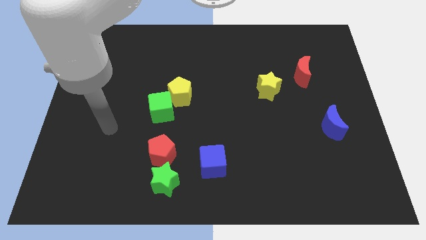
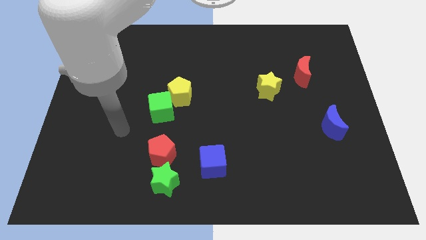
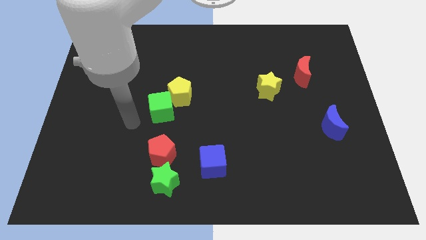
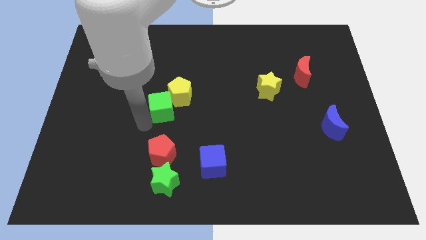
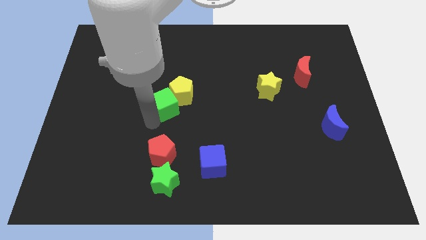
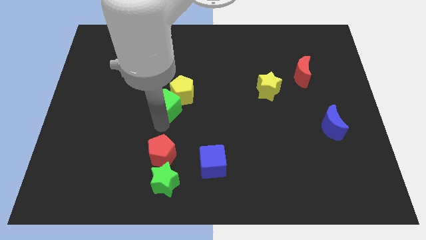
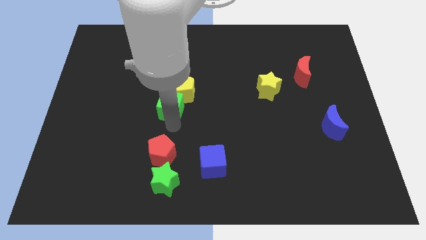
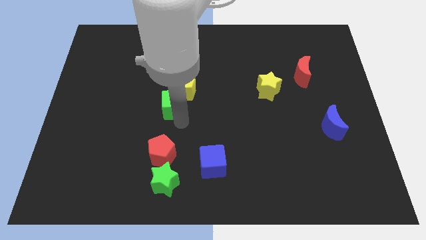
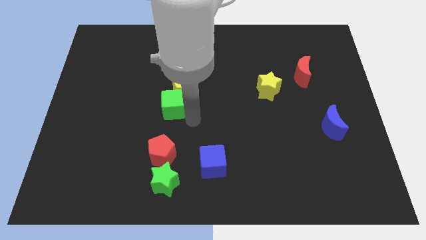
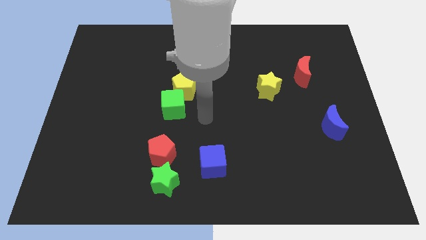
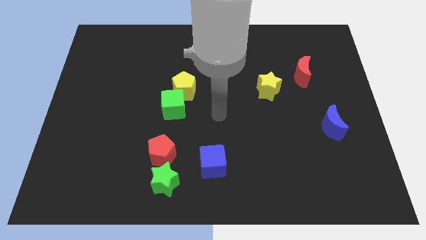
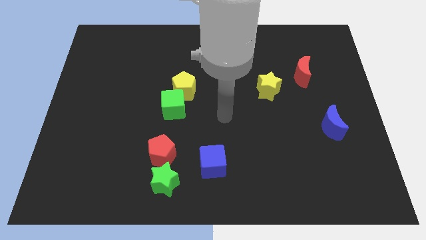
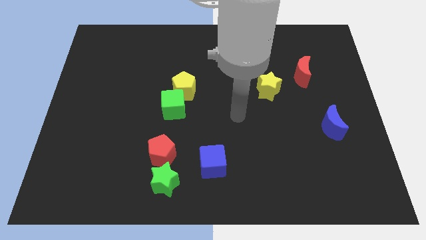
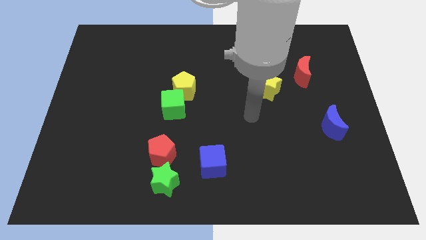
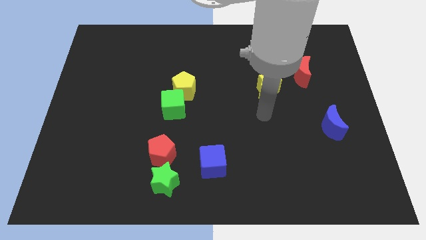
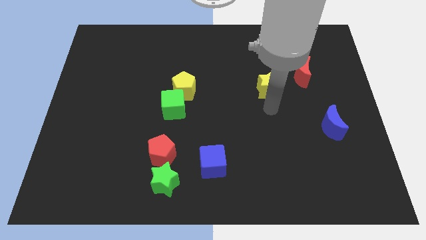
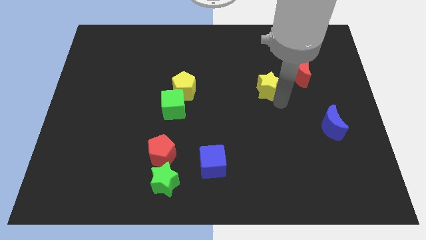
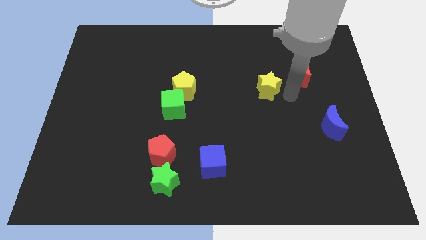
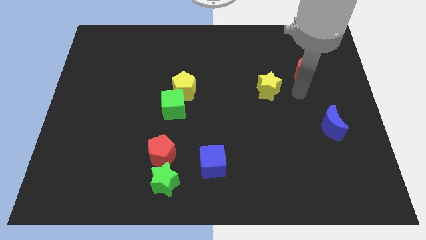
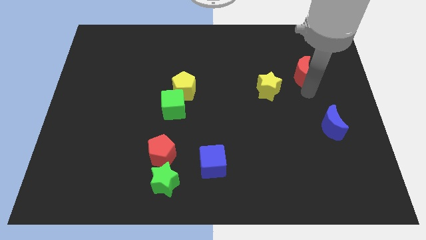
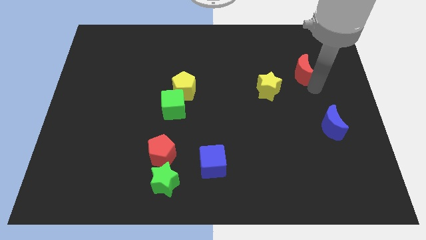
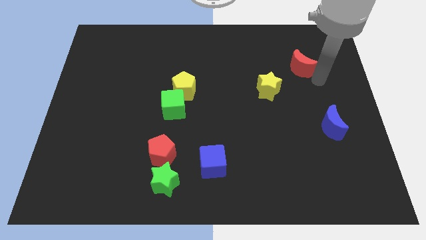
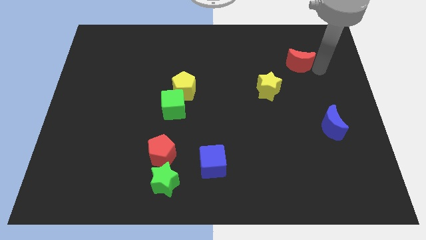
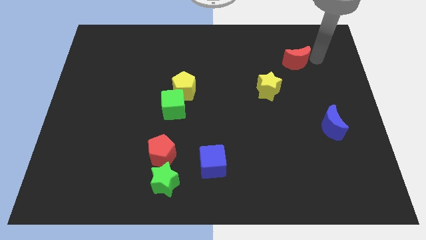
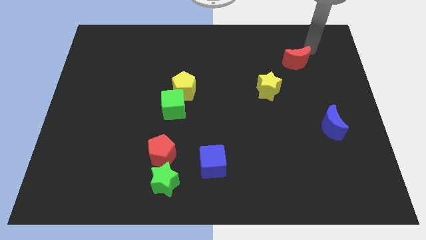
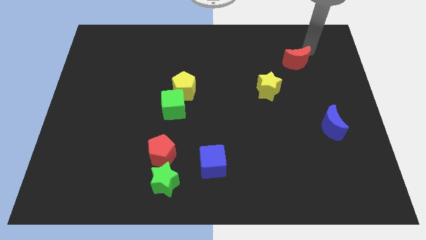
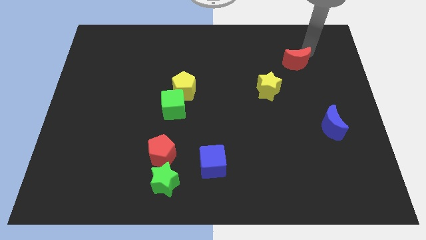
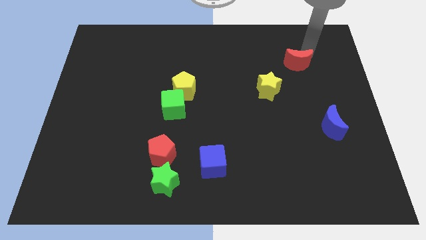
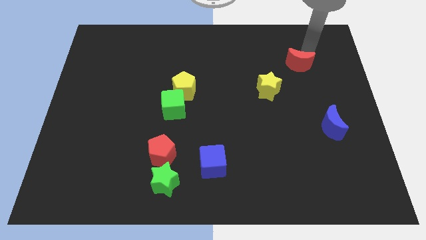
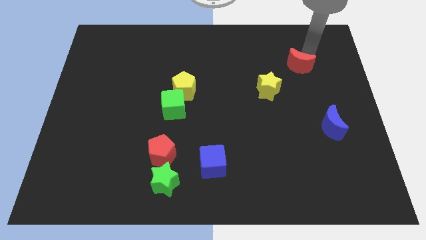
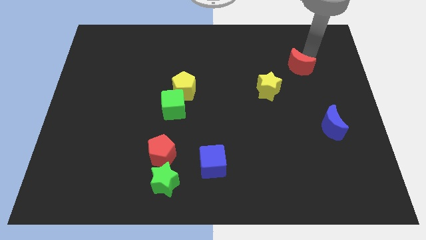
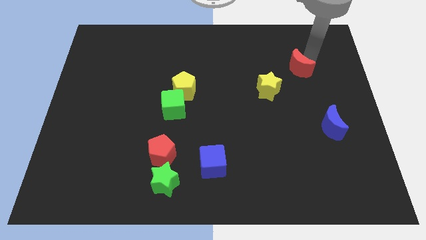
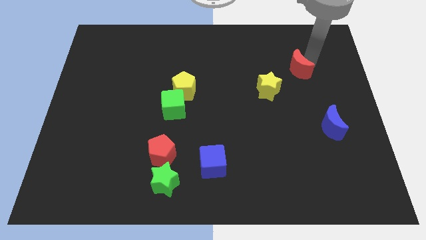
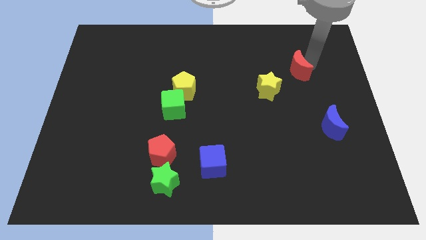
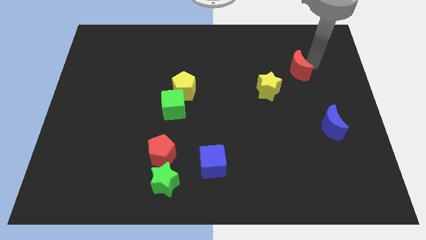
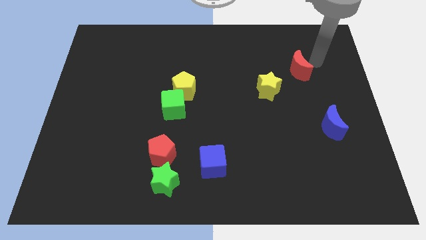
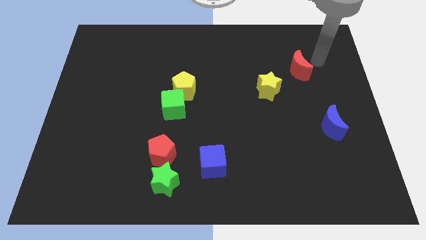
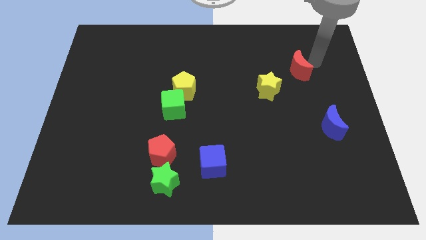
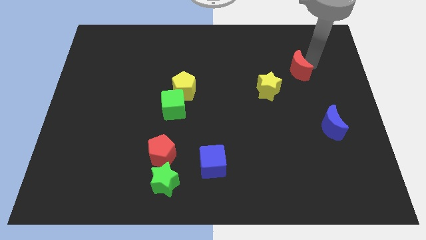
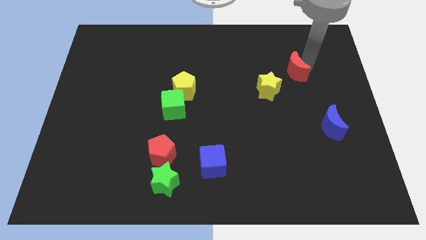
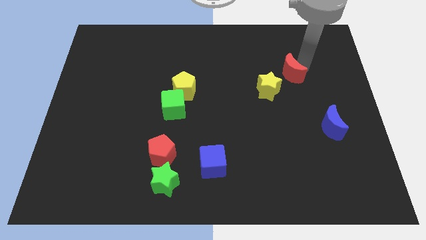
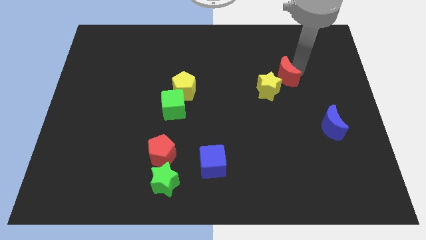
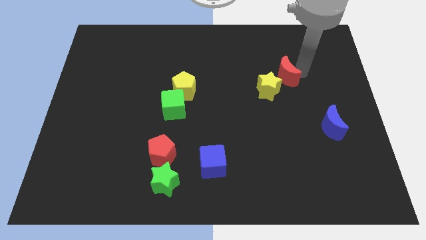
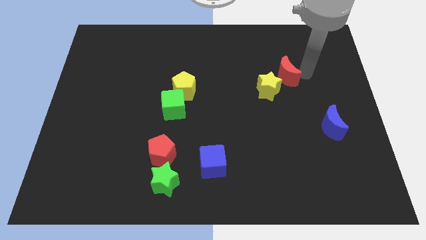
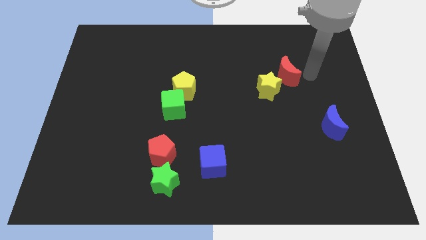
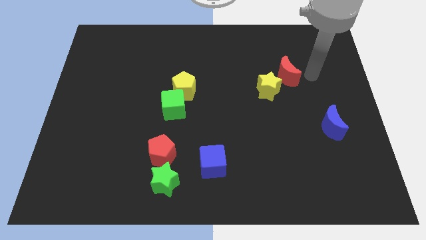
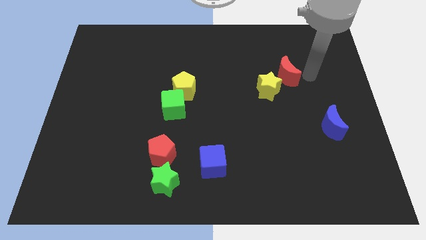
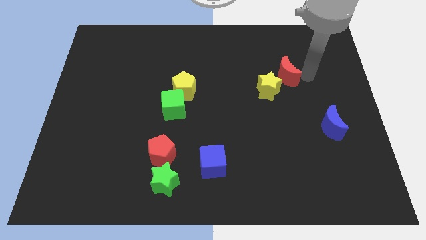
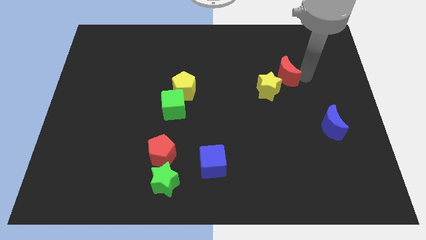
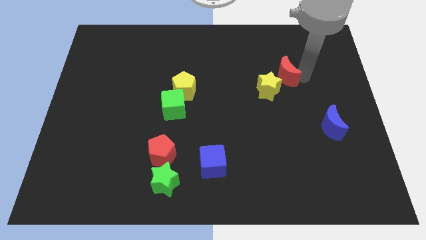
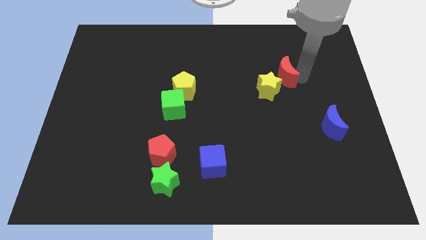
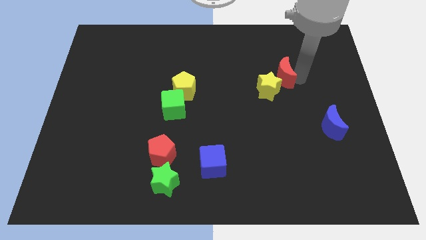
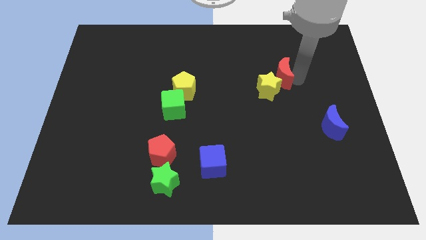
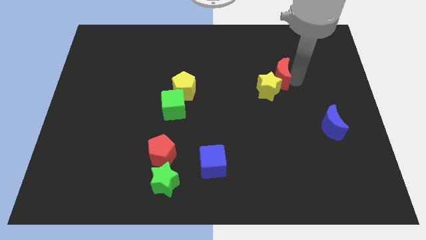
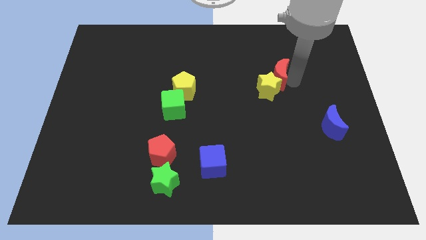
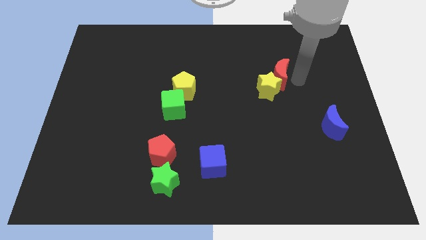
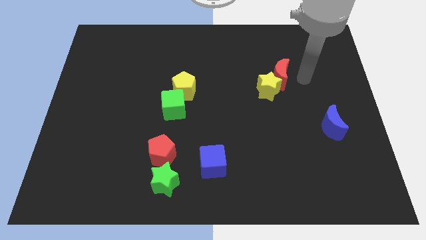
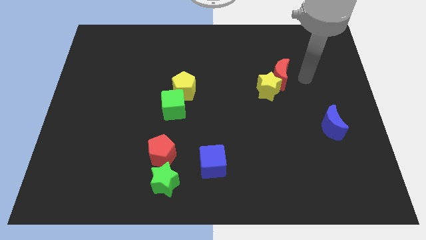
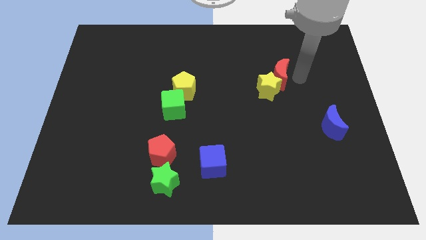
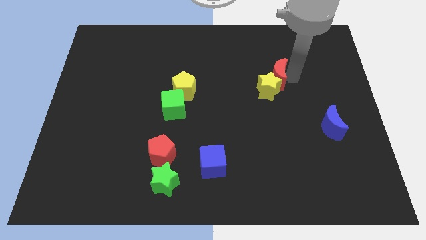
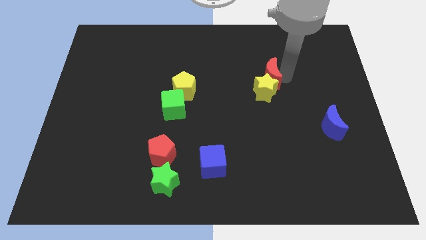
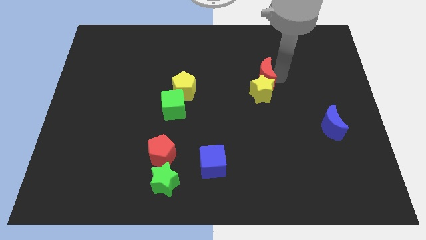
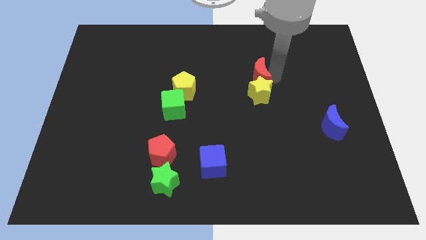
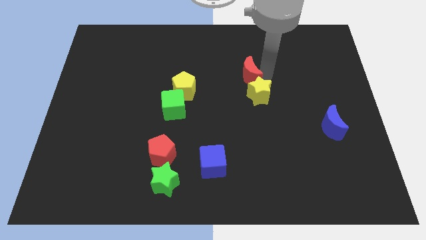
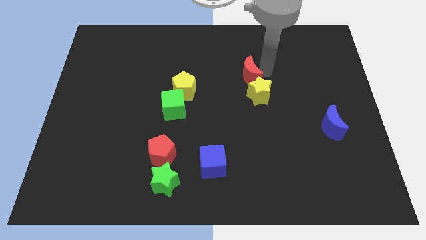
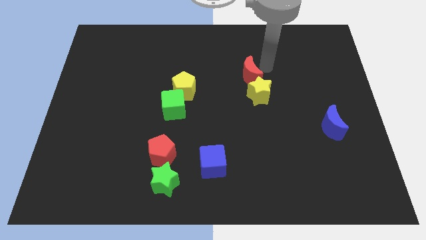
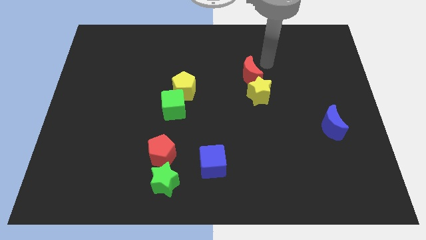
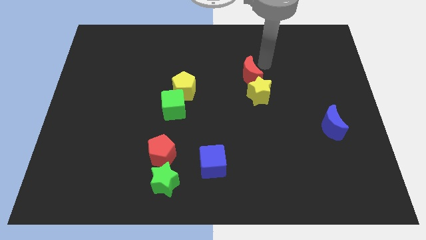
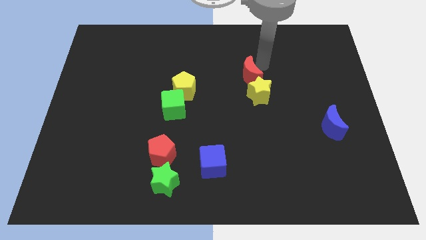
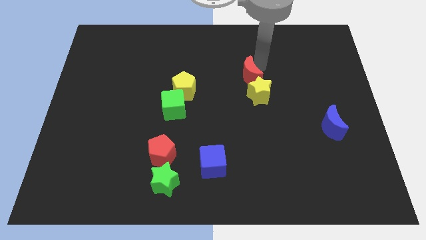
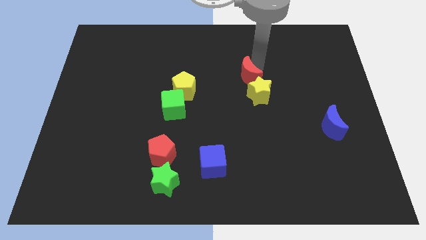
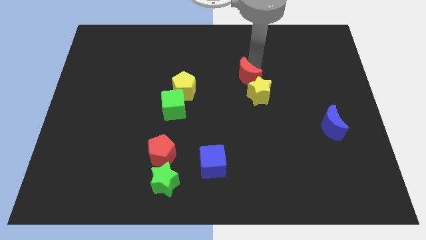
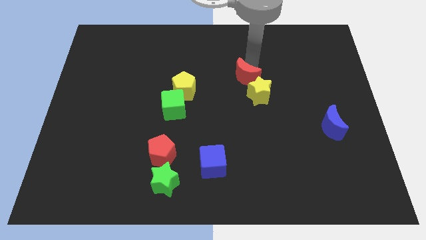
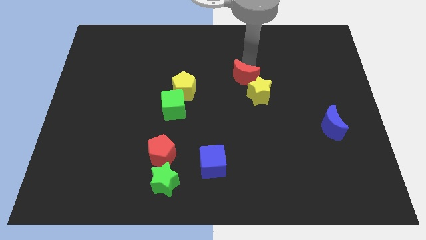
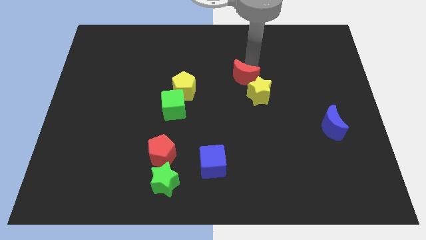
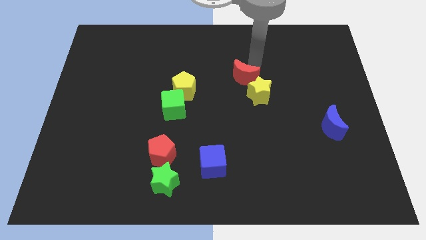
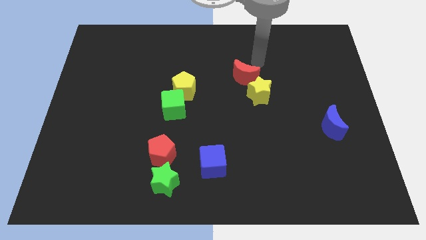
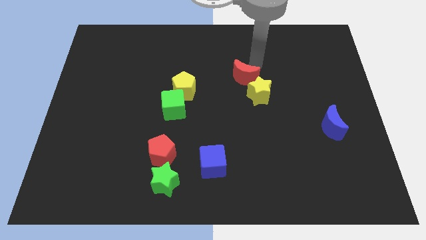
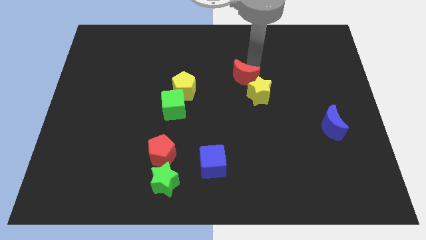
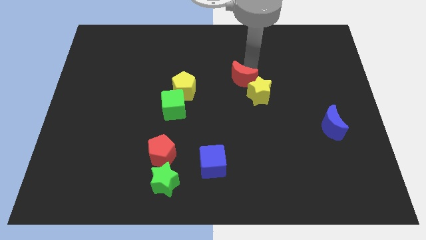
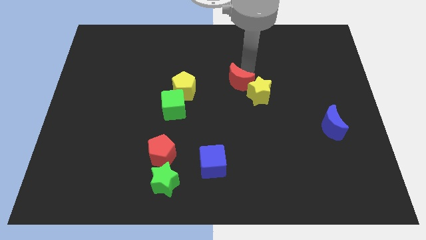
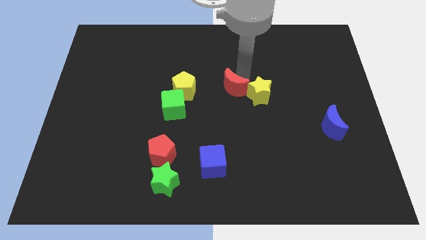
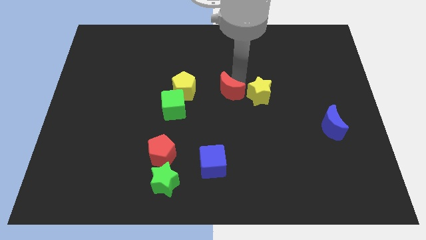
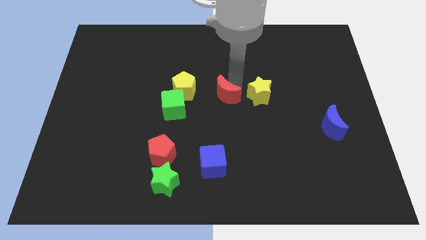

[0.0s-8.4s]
slide the red moon to the right side of the green cube
